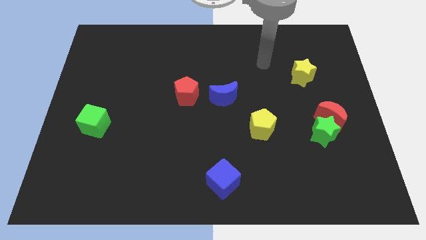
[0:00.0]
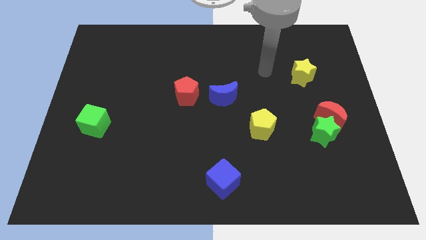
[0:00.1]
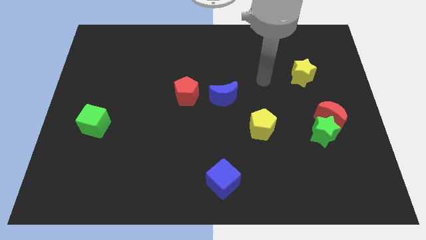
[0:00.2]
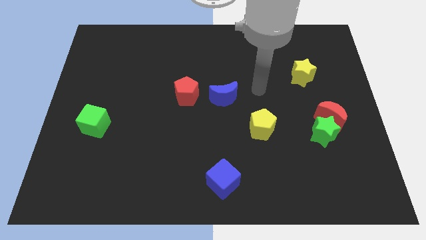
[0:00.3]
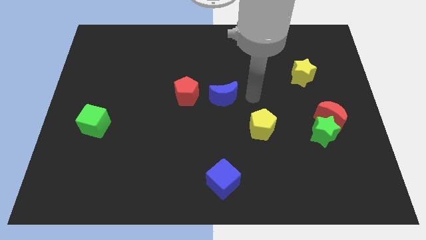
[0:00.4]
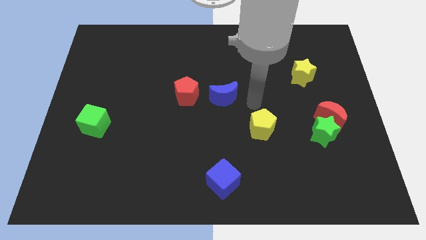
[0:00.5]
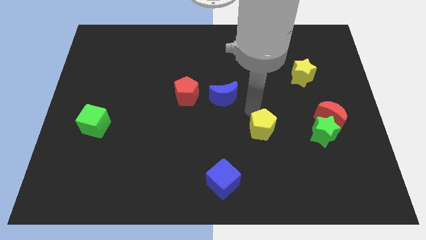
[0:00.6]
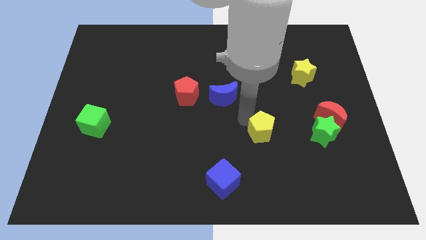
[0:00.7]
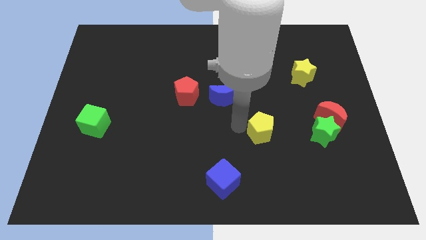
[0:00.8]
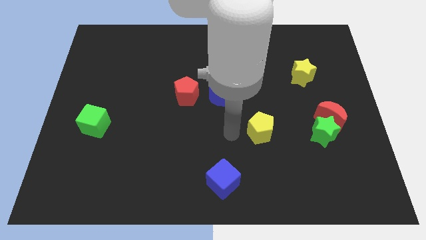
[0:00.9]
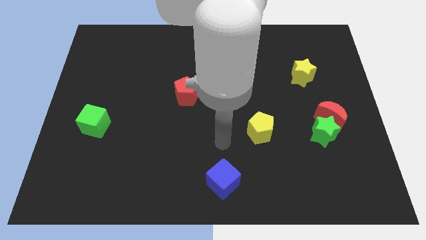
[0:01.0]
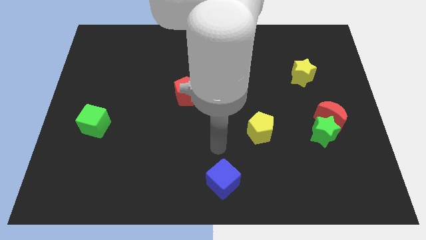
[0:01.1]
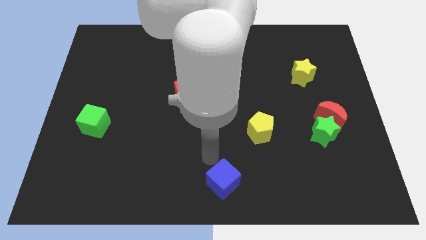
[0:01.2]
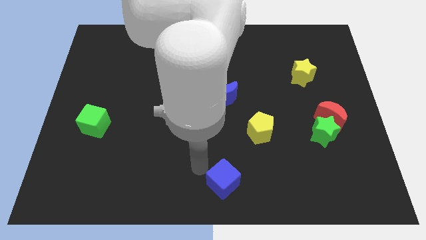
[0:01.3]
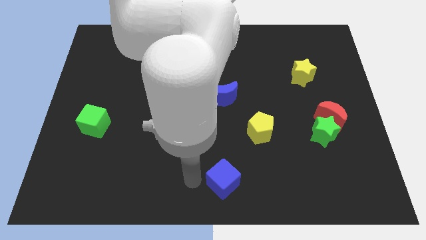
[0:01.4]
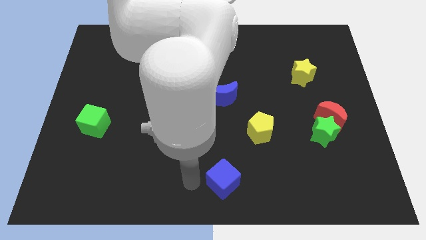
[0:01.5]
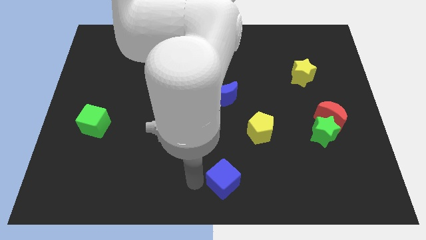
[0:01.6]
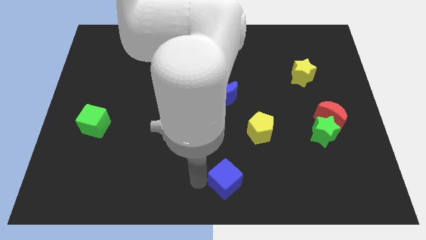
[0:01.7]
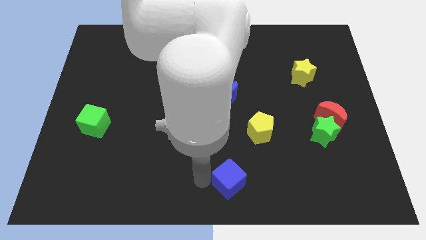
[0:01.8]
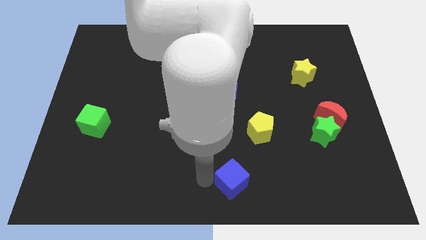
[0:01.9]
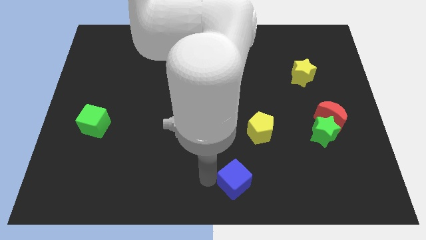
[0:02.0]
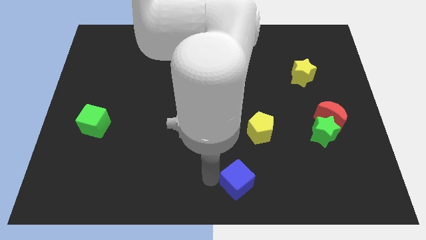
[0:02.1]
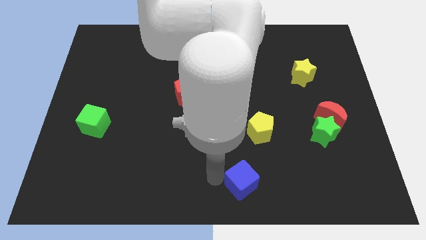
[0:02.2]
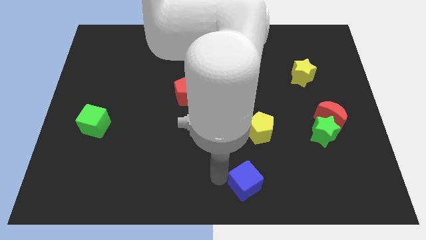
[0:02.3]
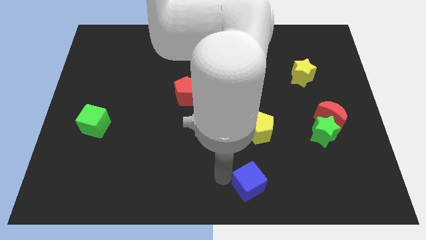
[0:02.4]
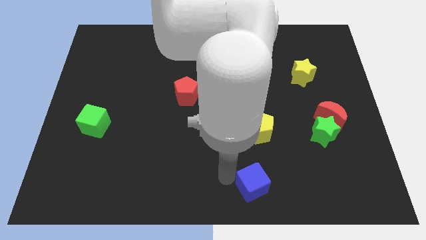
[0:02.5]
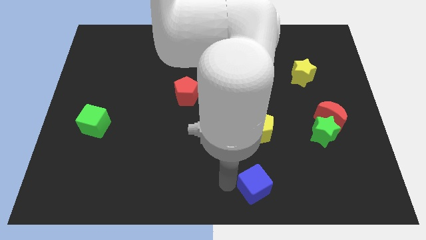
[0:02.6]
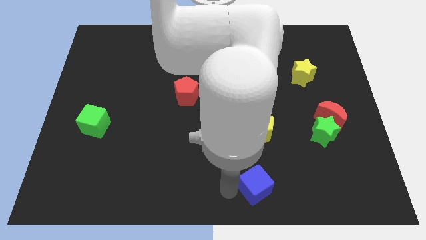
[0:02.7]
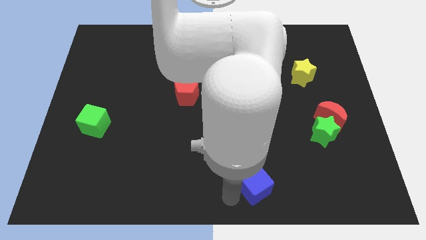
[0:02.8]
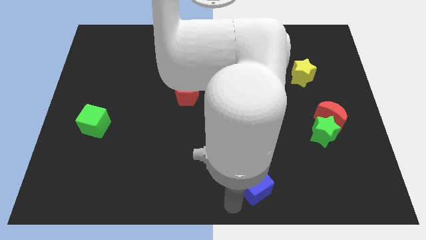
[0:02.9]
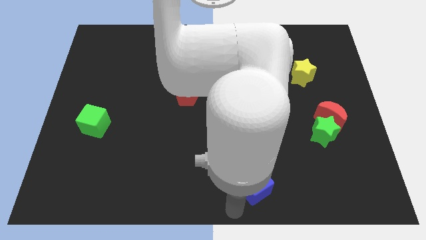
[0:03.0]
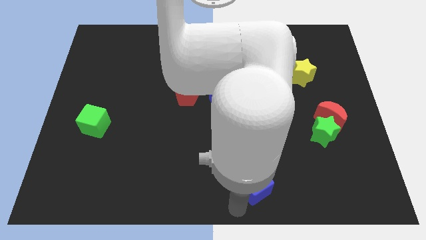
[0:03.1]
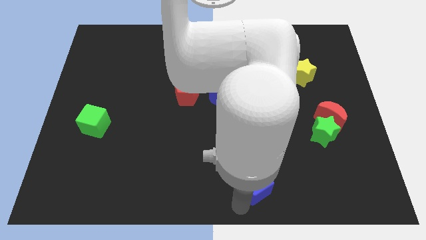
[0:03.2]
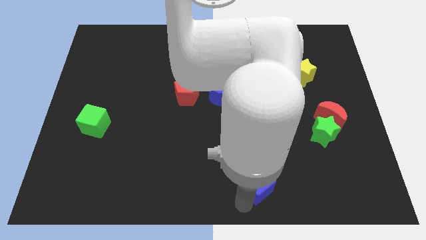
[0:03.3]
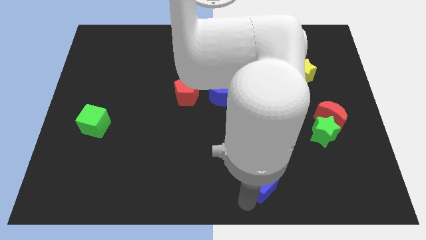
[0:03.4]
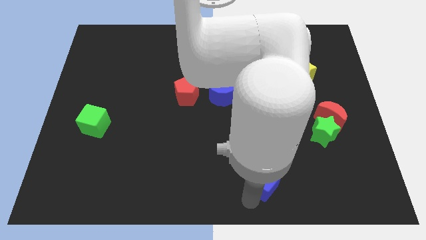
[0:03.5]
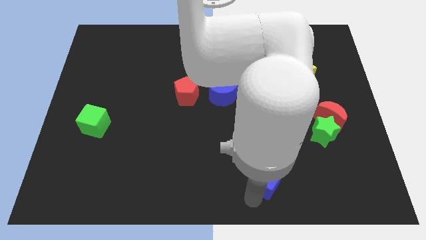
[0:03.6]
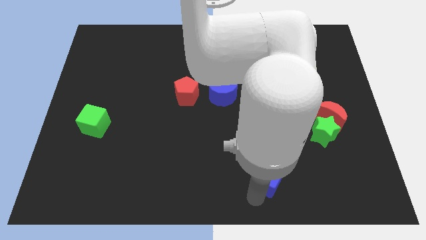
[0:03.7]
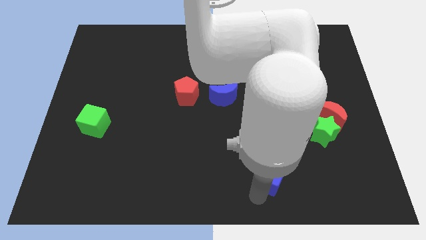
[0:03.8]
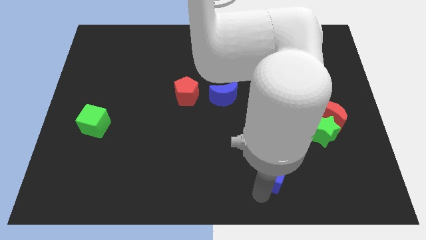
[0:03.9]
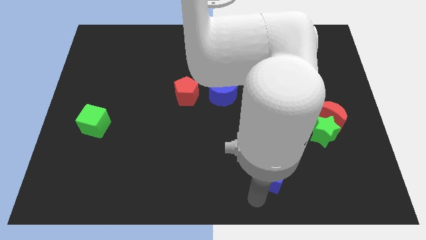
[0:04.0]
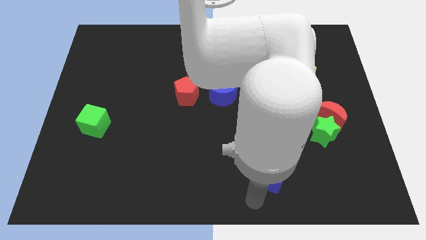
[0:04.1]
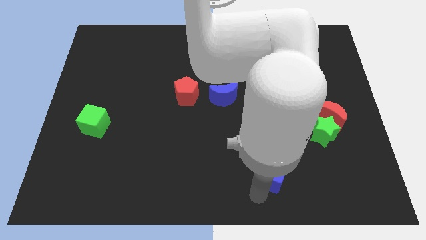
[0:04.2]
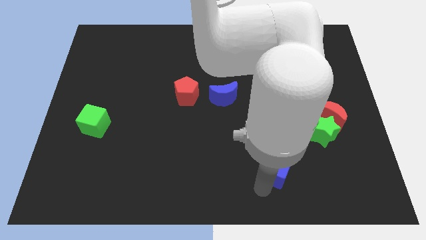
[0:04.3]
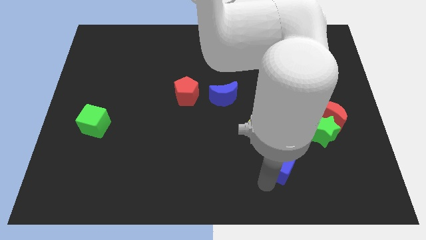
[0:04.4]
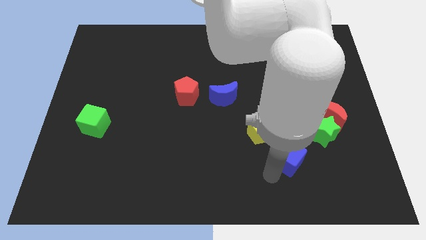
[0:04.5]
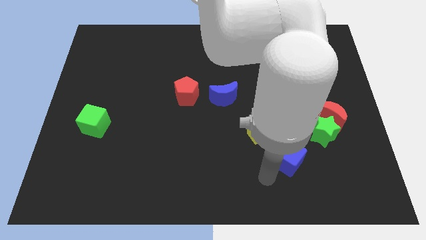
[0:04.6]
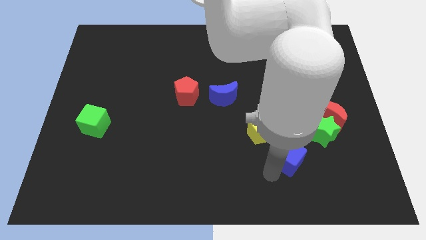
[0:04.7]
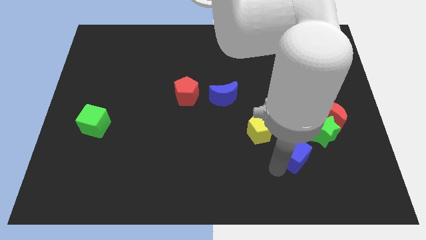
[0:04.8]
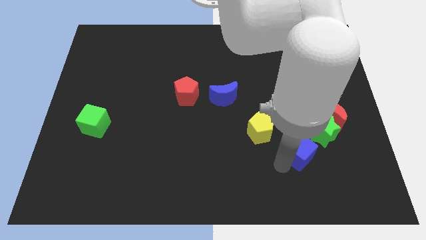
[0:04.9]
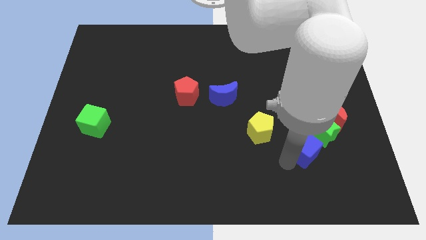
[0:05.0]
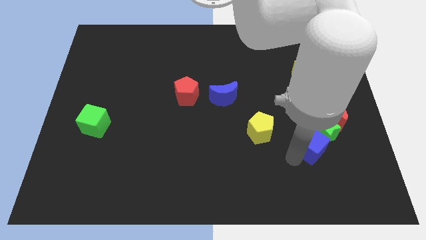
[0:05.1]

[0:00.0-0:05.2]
move the blue cube close to the green star

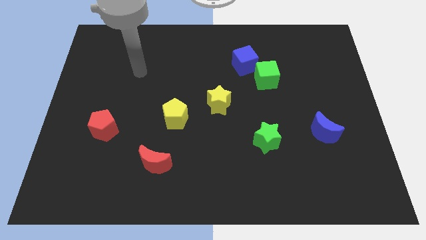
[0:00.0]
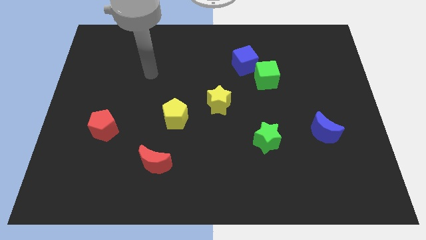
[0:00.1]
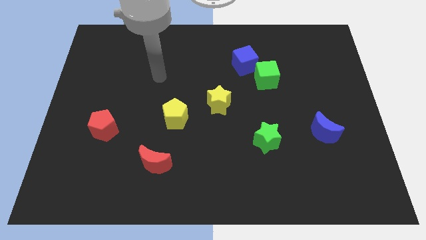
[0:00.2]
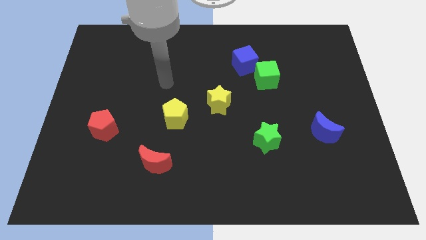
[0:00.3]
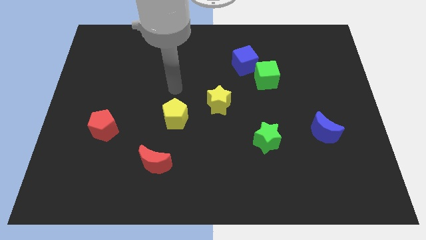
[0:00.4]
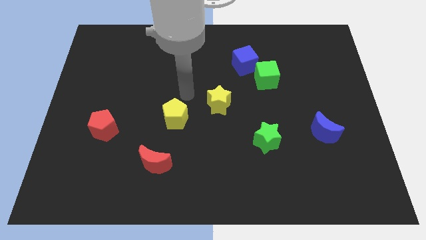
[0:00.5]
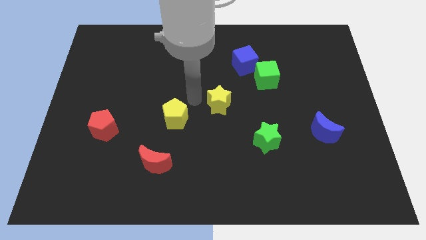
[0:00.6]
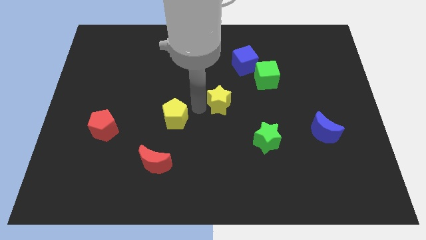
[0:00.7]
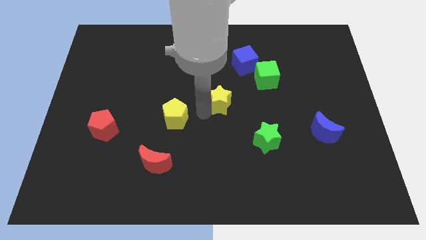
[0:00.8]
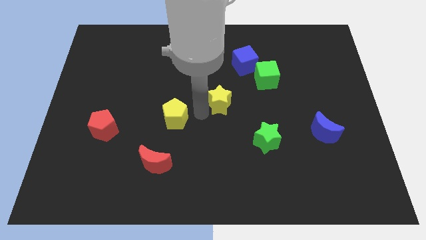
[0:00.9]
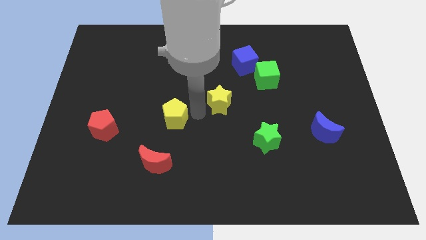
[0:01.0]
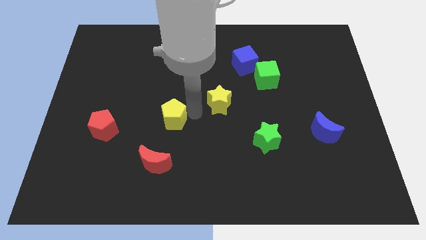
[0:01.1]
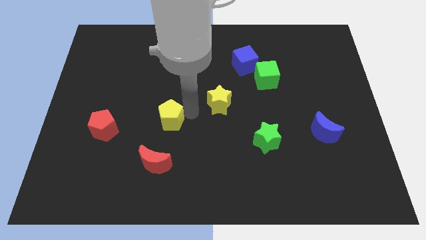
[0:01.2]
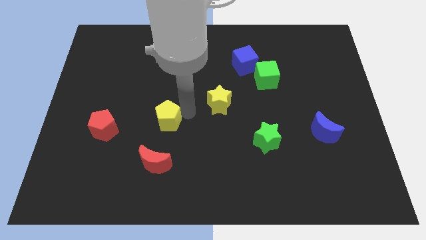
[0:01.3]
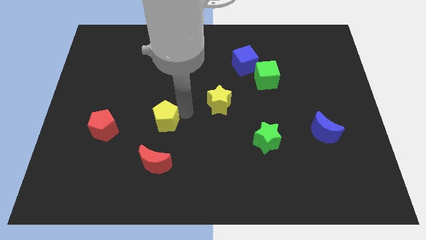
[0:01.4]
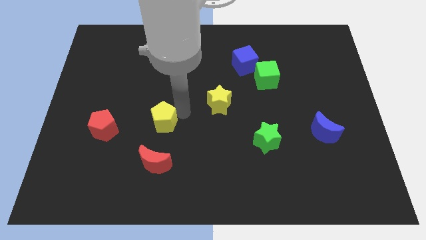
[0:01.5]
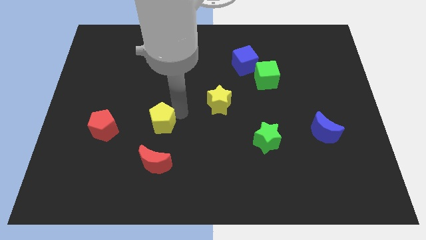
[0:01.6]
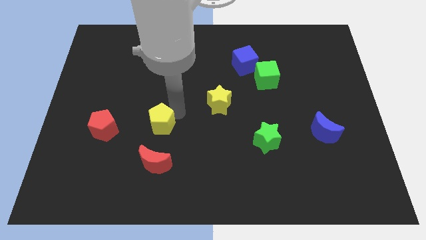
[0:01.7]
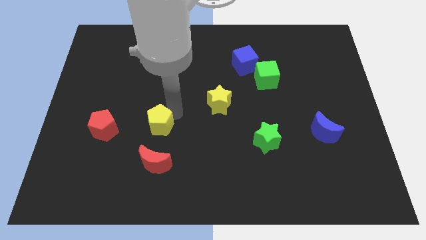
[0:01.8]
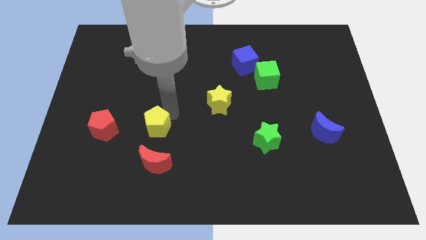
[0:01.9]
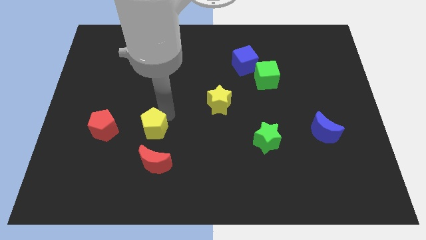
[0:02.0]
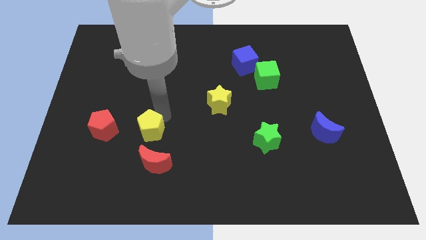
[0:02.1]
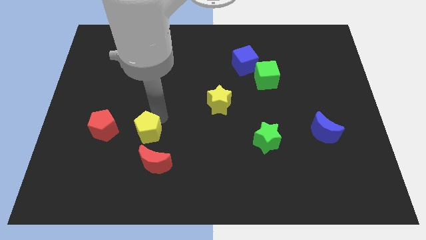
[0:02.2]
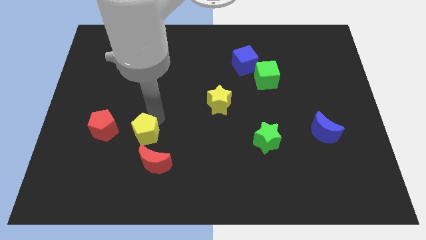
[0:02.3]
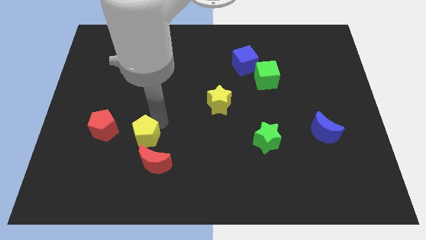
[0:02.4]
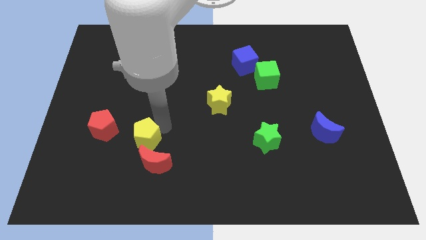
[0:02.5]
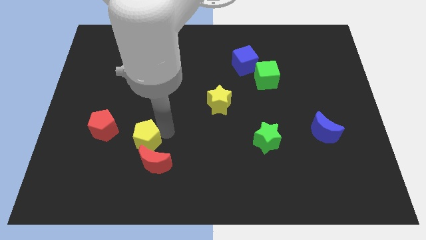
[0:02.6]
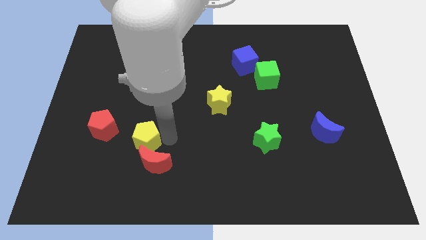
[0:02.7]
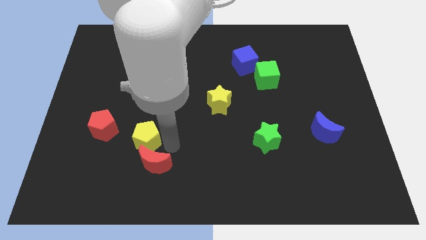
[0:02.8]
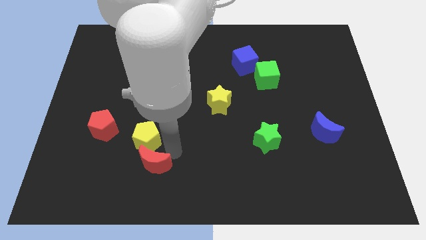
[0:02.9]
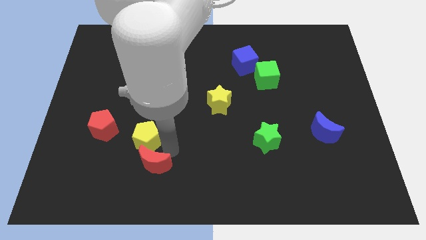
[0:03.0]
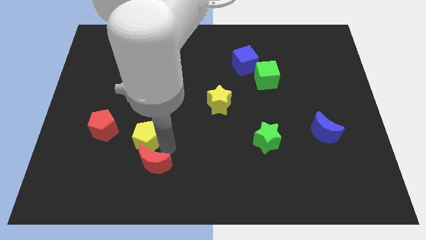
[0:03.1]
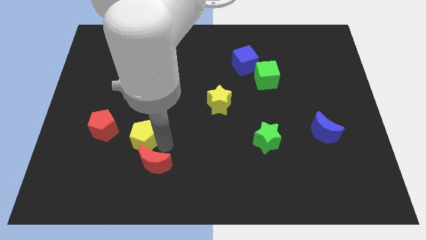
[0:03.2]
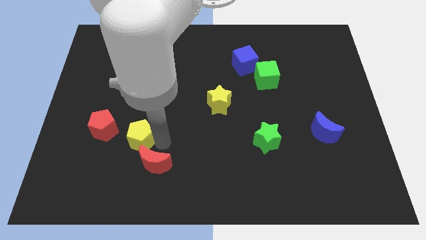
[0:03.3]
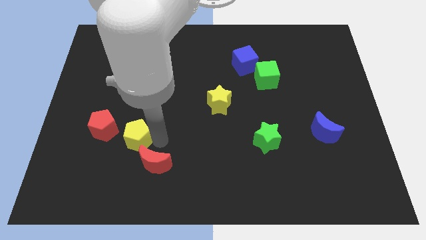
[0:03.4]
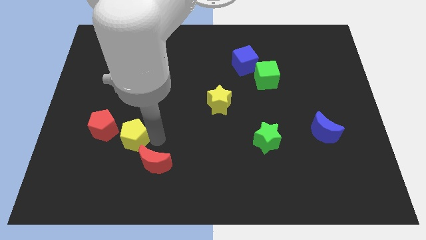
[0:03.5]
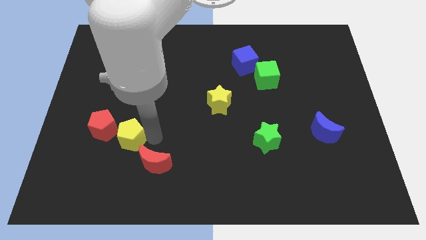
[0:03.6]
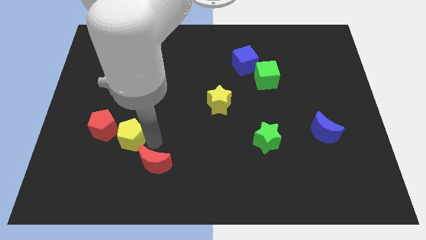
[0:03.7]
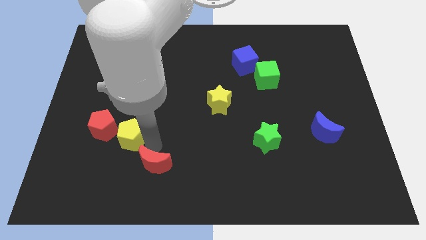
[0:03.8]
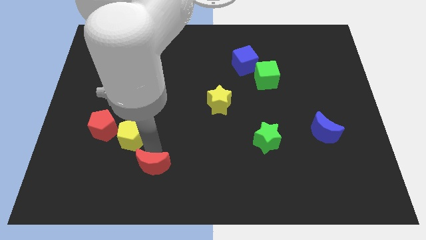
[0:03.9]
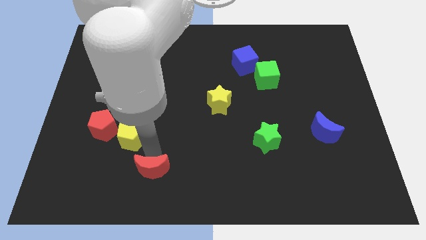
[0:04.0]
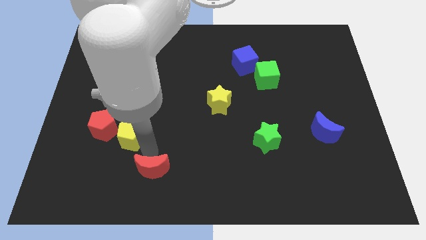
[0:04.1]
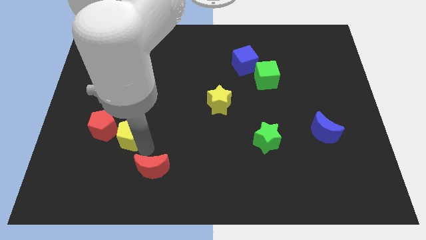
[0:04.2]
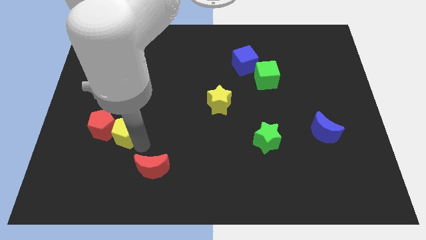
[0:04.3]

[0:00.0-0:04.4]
push the yellow pentagon close to the red pentagon
